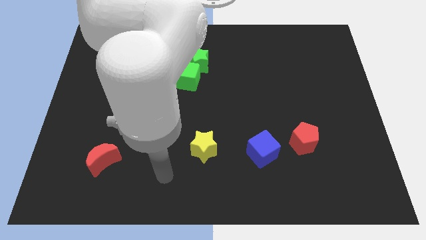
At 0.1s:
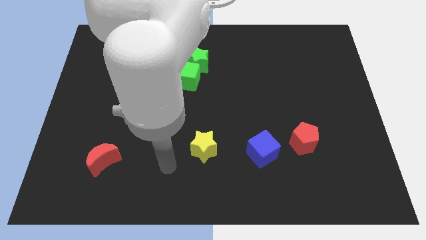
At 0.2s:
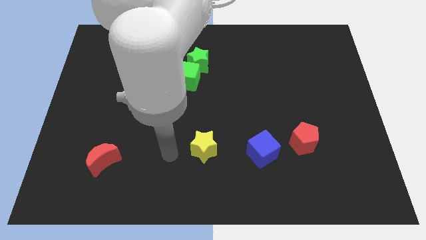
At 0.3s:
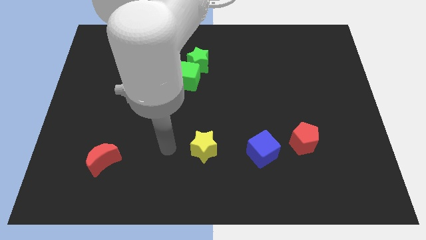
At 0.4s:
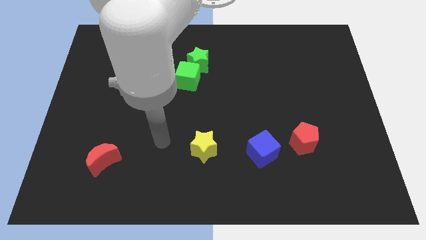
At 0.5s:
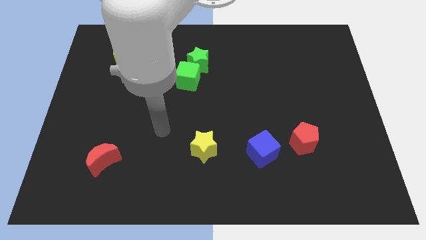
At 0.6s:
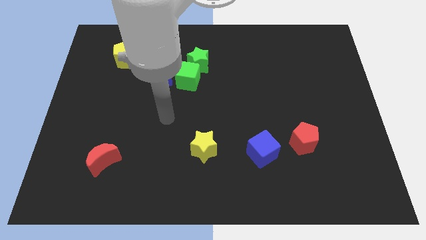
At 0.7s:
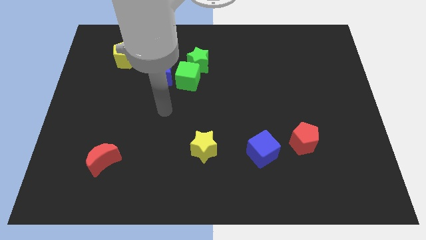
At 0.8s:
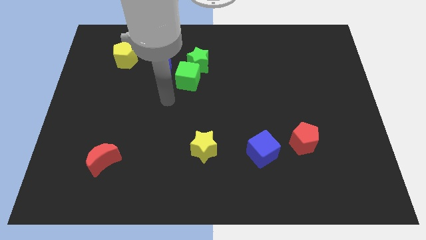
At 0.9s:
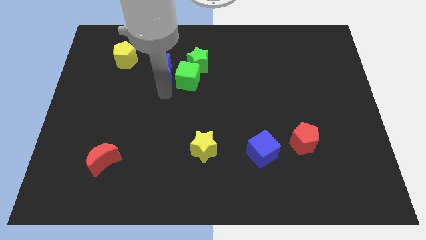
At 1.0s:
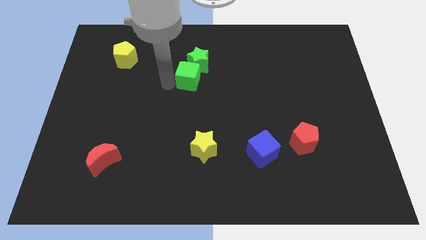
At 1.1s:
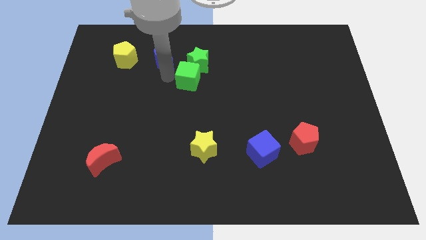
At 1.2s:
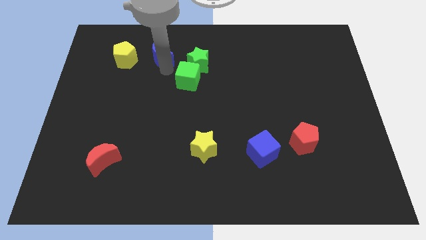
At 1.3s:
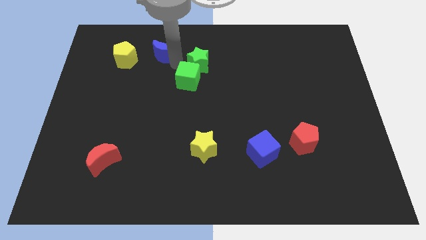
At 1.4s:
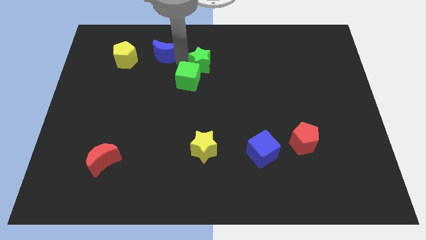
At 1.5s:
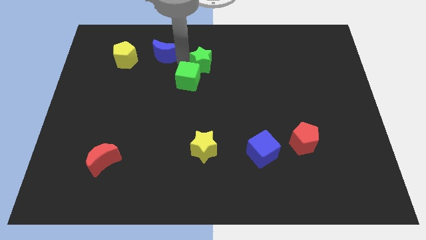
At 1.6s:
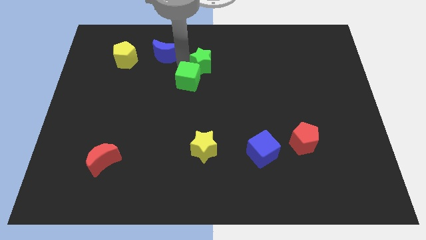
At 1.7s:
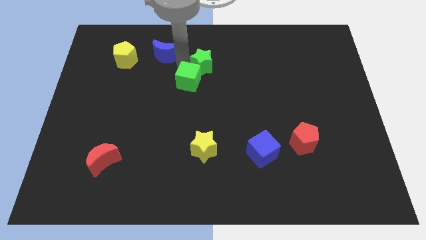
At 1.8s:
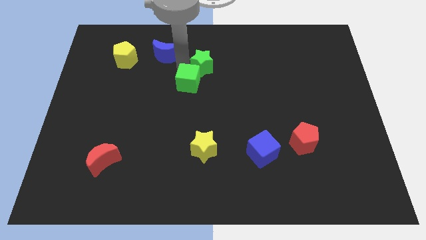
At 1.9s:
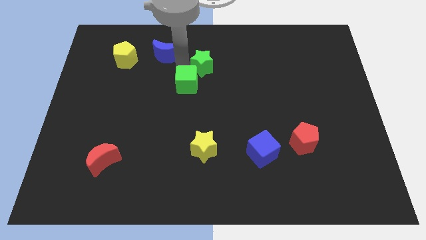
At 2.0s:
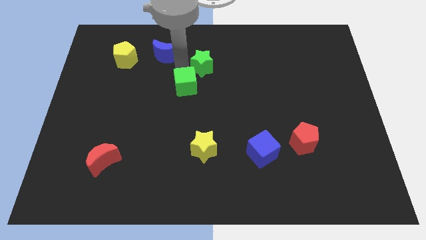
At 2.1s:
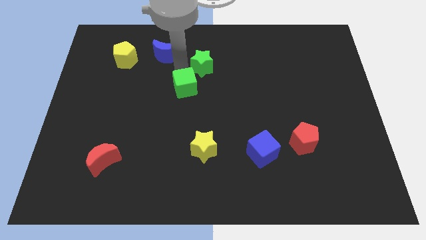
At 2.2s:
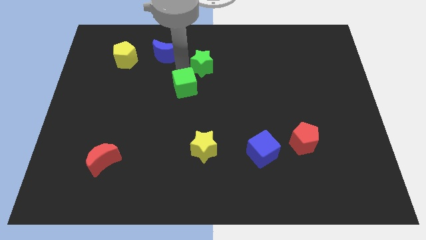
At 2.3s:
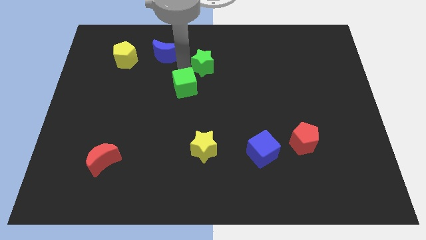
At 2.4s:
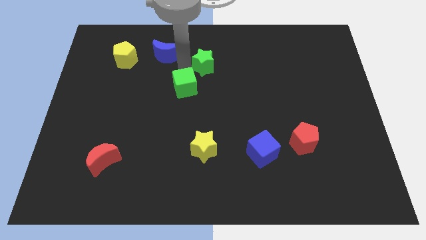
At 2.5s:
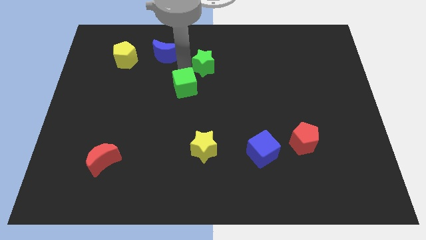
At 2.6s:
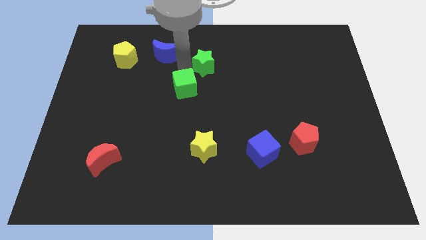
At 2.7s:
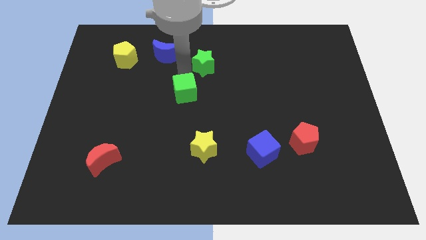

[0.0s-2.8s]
pull the green cube apart from the green star and blue moon

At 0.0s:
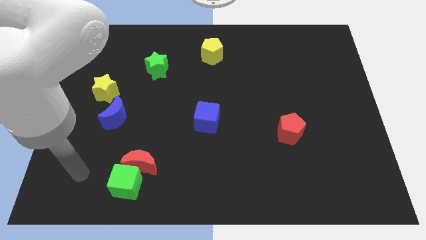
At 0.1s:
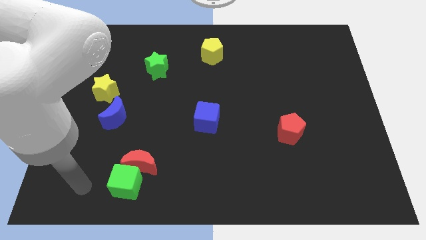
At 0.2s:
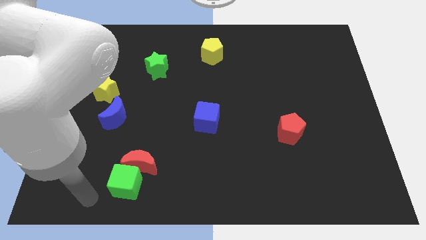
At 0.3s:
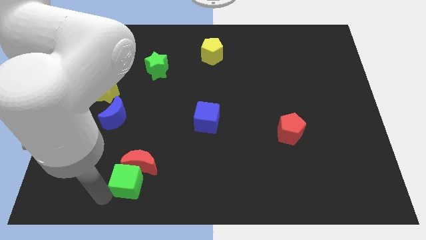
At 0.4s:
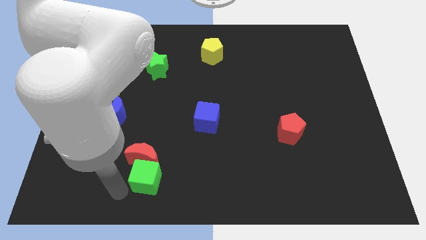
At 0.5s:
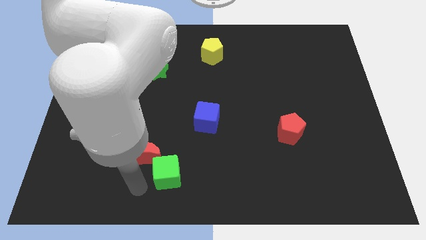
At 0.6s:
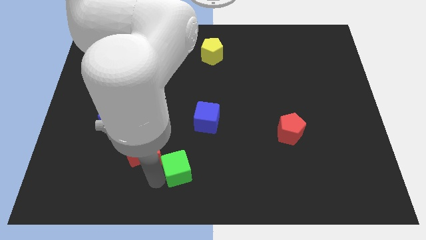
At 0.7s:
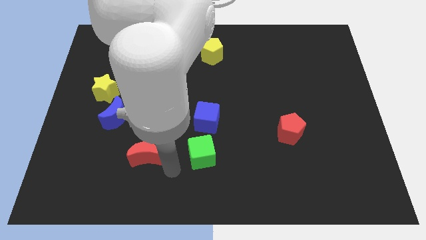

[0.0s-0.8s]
pull the red moon apart from the green cube

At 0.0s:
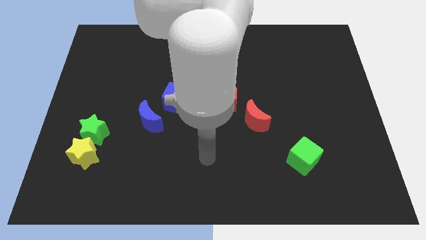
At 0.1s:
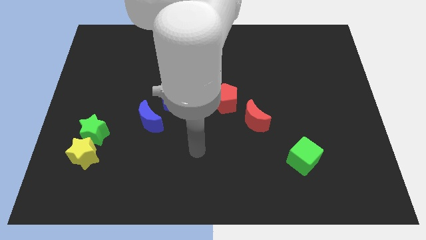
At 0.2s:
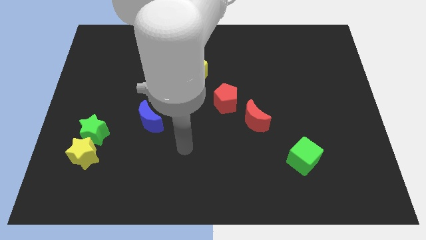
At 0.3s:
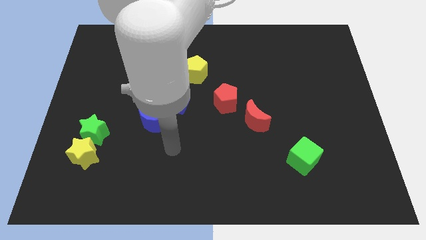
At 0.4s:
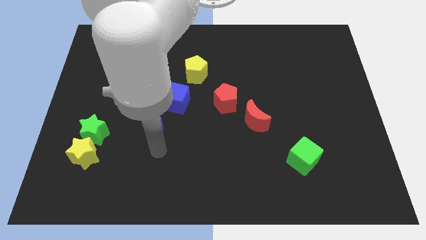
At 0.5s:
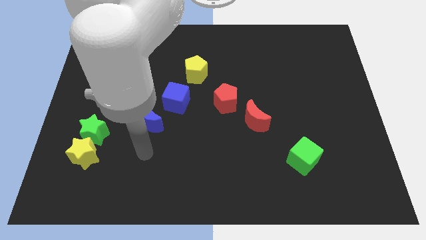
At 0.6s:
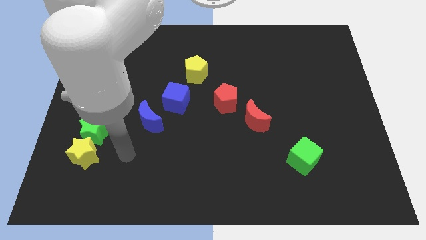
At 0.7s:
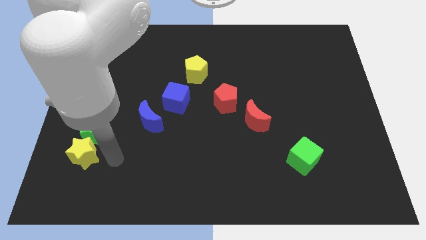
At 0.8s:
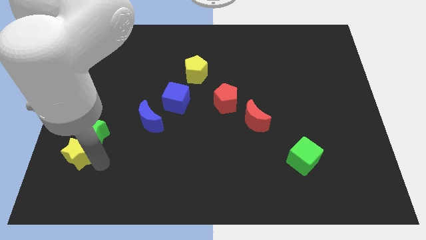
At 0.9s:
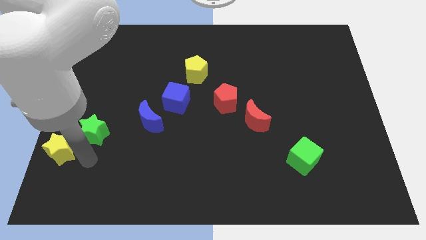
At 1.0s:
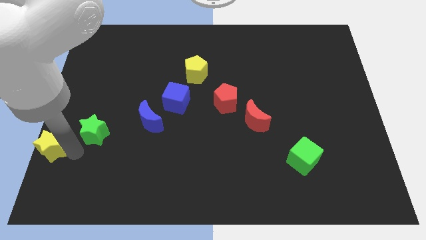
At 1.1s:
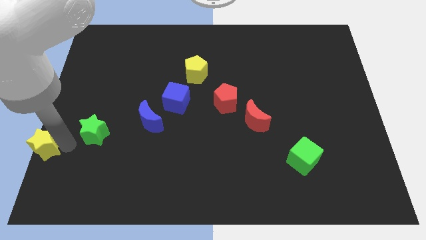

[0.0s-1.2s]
separate the green star from the yellow star

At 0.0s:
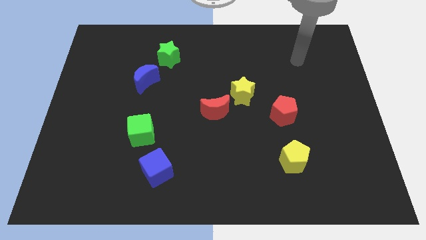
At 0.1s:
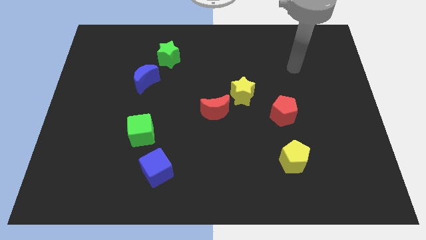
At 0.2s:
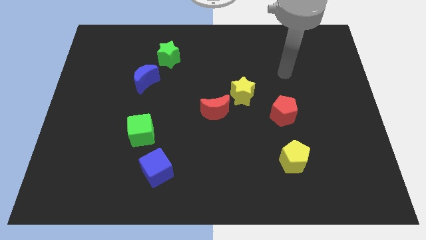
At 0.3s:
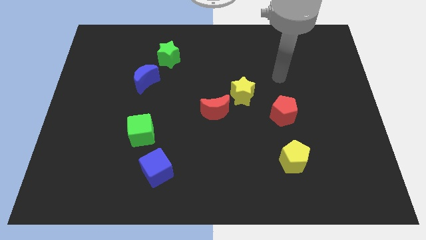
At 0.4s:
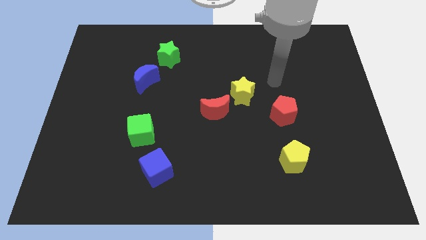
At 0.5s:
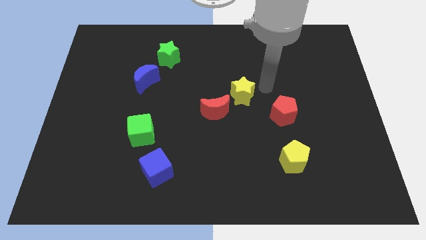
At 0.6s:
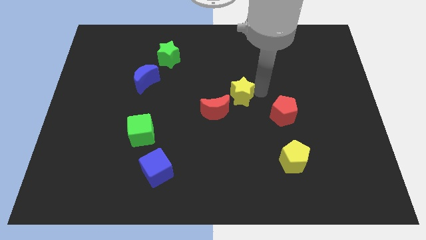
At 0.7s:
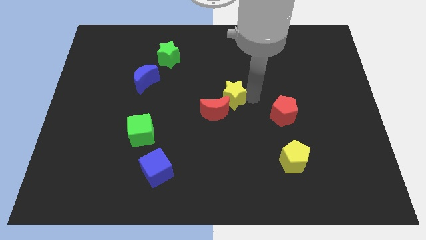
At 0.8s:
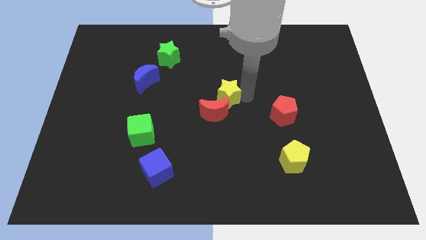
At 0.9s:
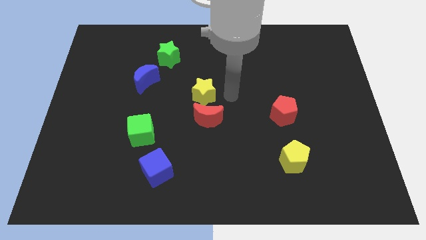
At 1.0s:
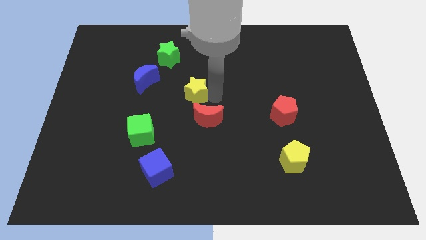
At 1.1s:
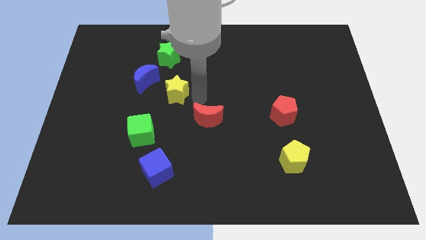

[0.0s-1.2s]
separate the red moon from the yellow star

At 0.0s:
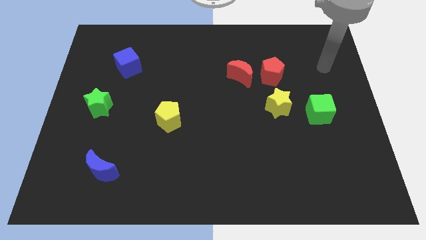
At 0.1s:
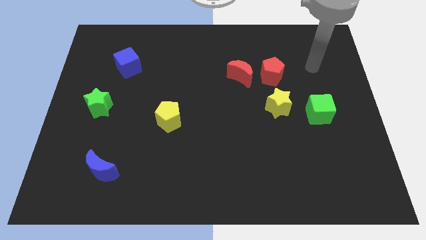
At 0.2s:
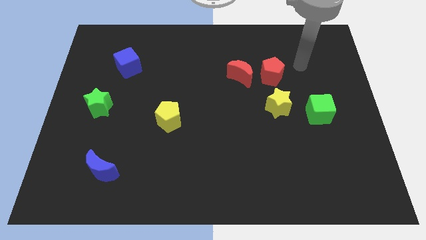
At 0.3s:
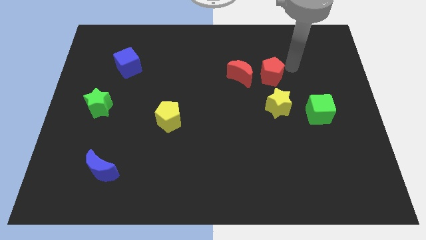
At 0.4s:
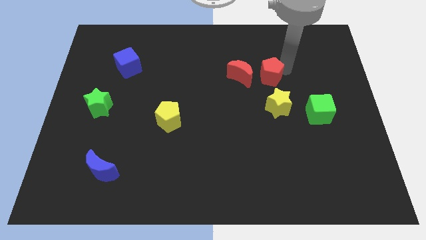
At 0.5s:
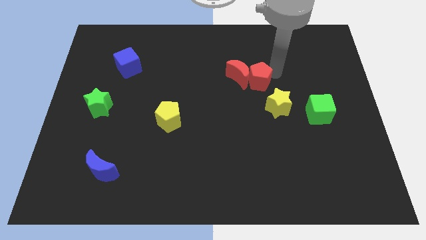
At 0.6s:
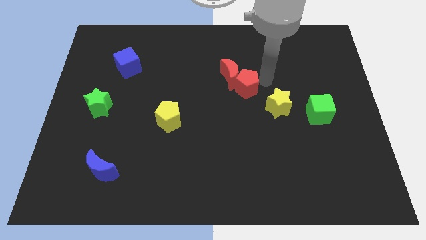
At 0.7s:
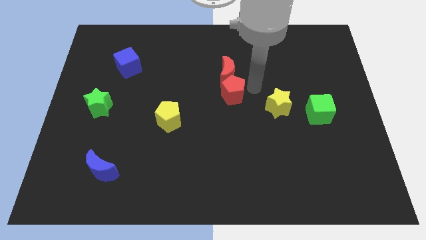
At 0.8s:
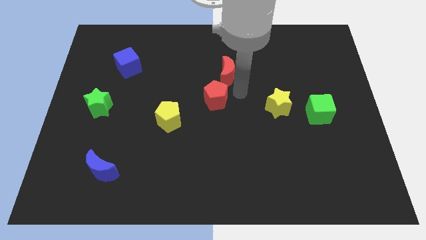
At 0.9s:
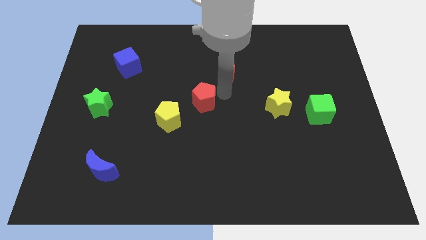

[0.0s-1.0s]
pull the red moon apart from the red pentagon

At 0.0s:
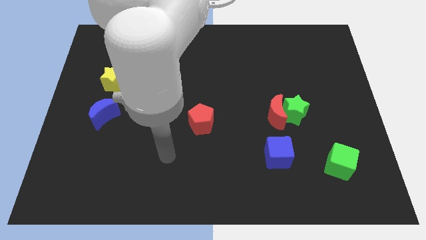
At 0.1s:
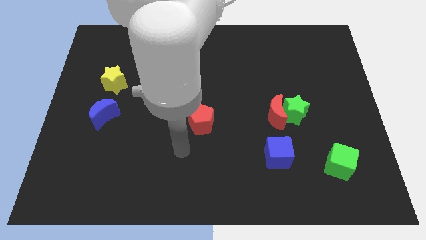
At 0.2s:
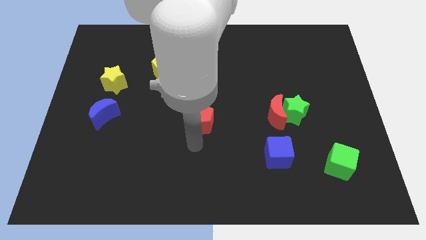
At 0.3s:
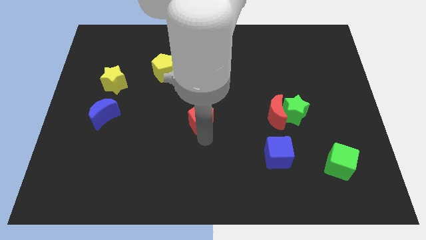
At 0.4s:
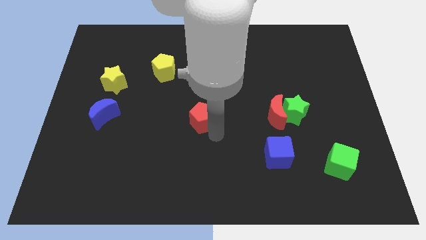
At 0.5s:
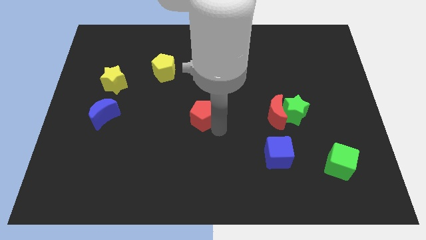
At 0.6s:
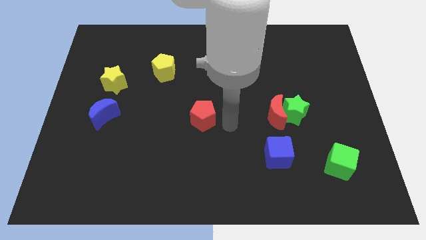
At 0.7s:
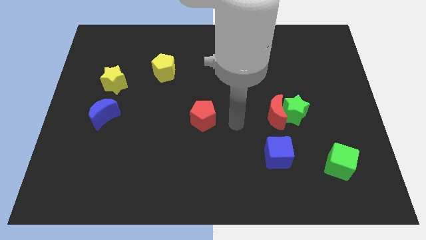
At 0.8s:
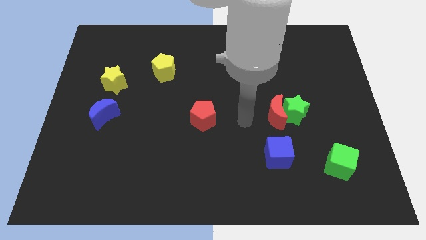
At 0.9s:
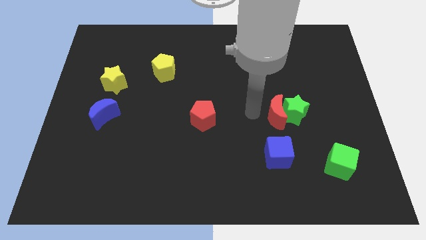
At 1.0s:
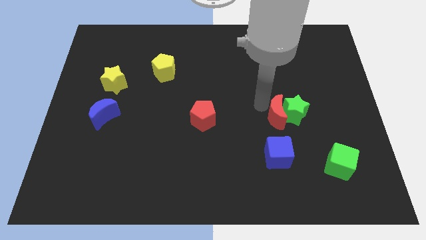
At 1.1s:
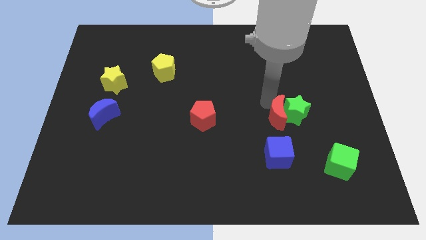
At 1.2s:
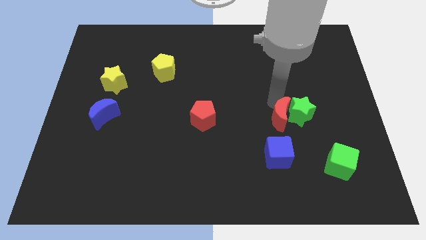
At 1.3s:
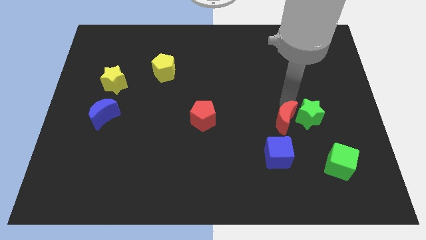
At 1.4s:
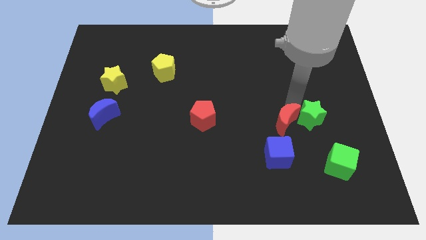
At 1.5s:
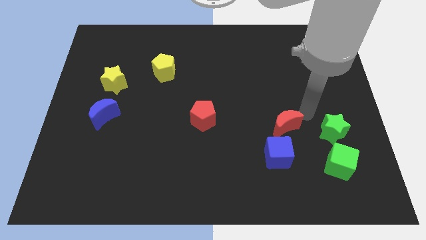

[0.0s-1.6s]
pull the red moon apart from the green star

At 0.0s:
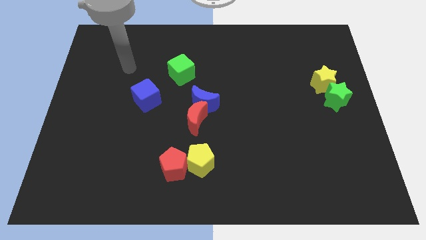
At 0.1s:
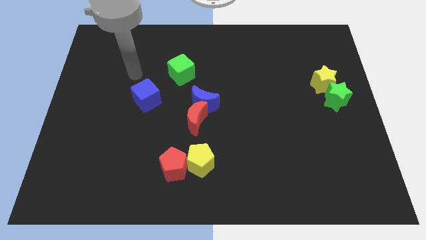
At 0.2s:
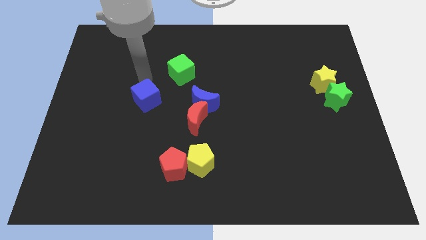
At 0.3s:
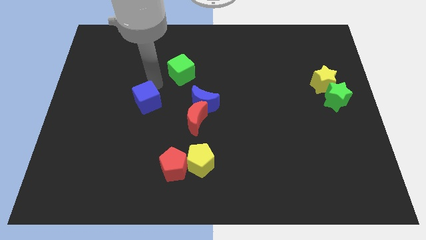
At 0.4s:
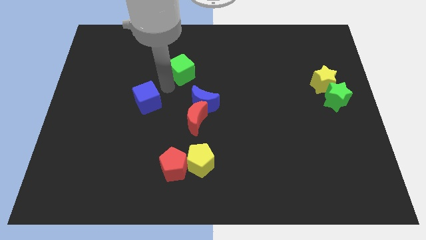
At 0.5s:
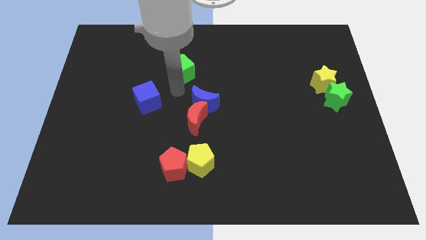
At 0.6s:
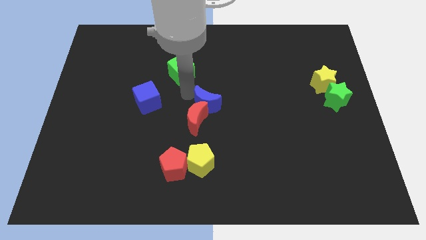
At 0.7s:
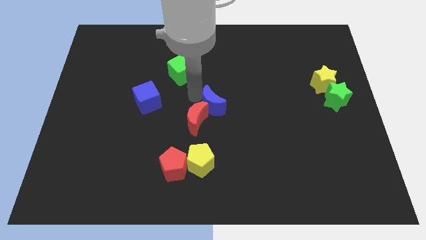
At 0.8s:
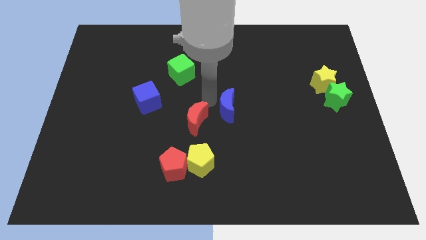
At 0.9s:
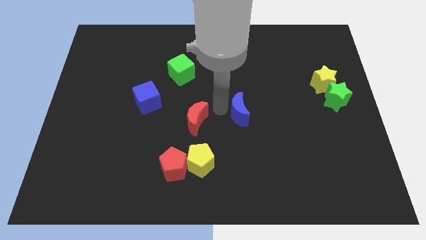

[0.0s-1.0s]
pull the red moon apart from the blue moon
